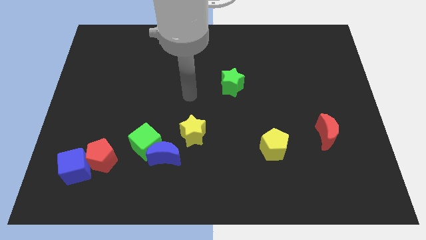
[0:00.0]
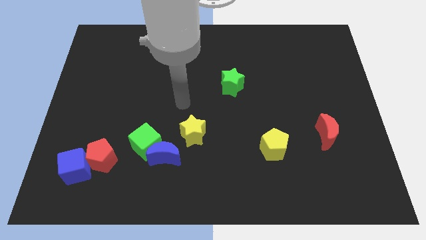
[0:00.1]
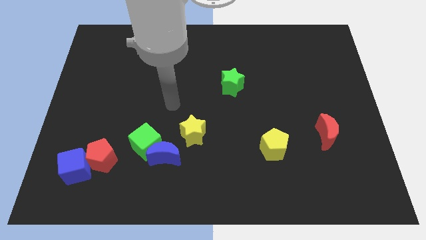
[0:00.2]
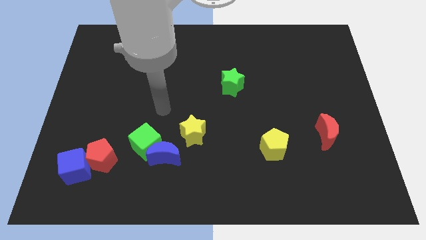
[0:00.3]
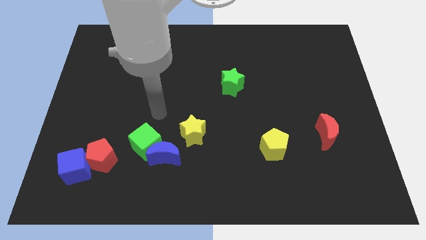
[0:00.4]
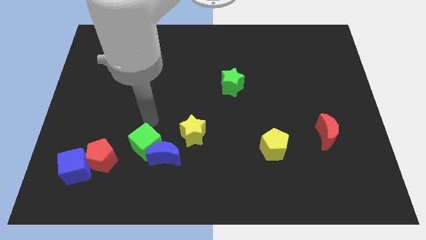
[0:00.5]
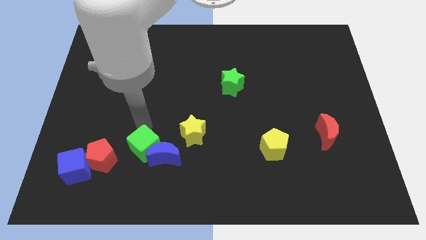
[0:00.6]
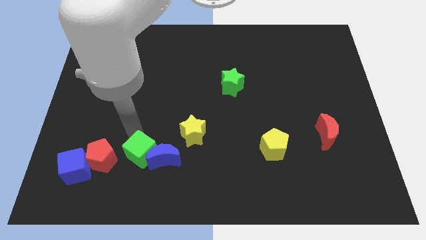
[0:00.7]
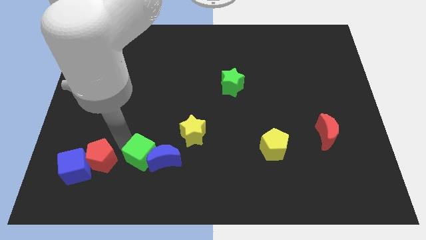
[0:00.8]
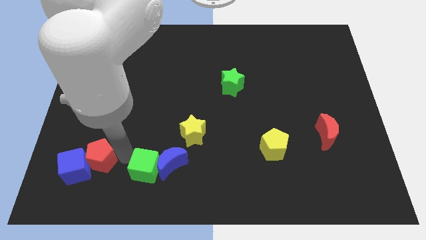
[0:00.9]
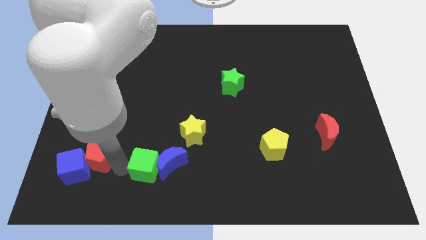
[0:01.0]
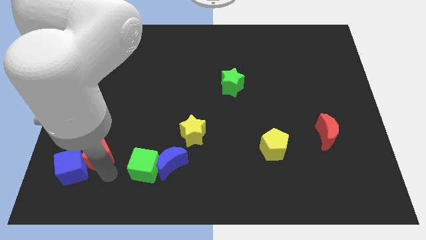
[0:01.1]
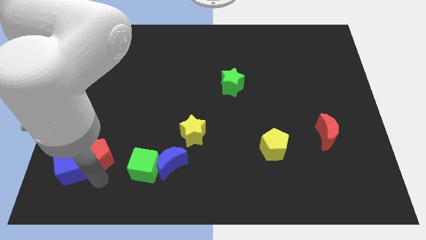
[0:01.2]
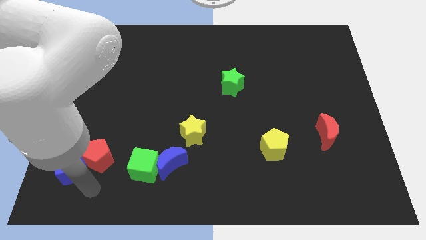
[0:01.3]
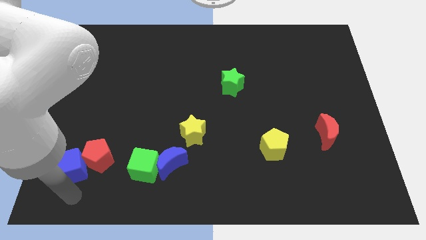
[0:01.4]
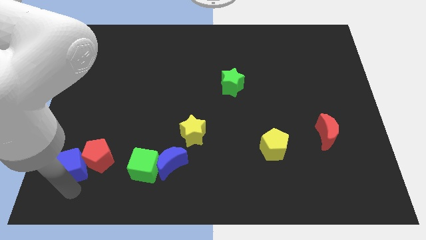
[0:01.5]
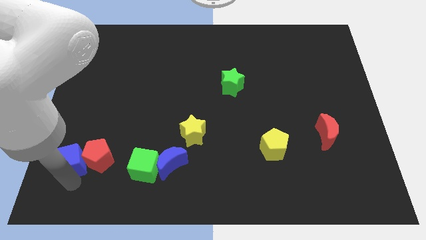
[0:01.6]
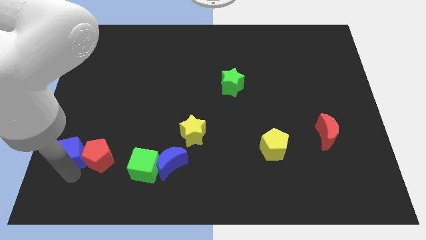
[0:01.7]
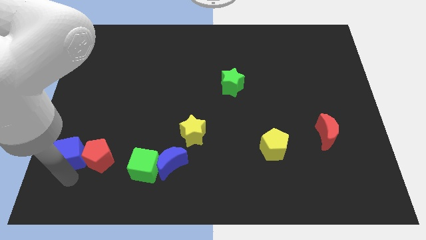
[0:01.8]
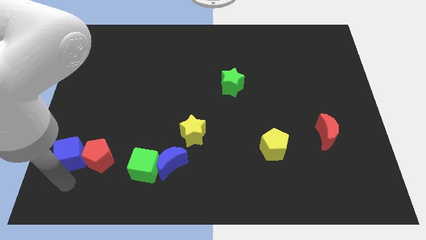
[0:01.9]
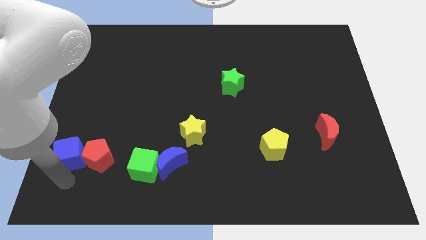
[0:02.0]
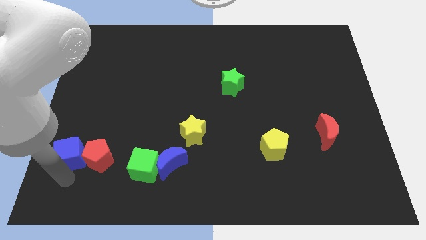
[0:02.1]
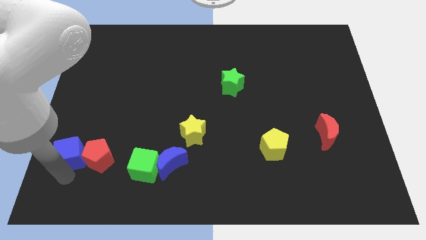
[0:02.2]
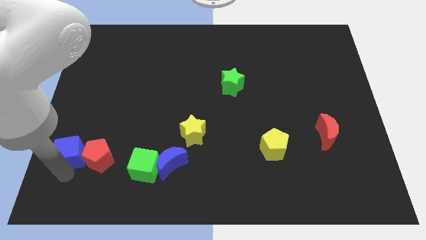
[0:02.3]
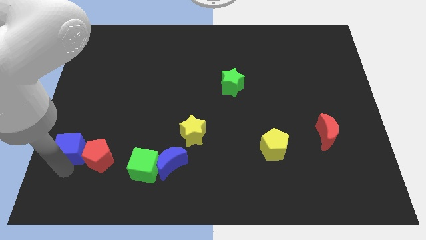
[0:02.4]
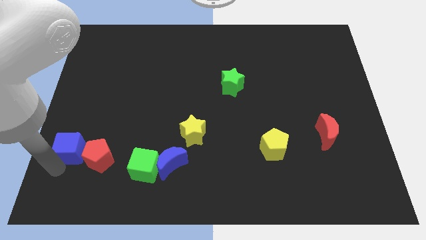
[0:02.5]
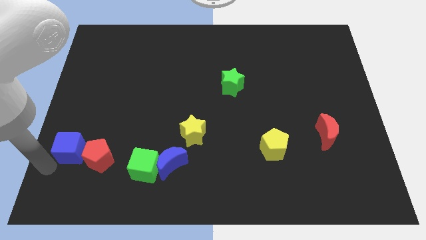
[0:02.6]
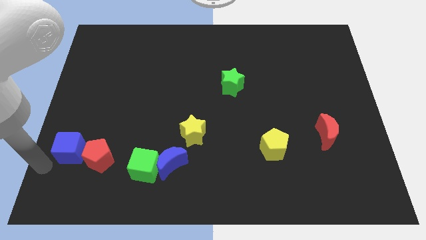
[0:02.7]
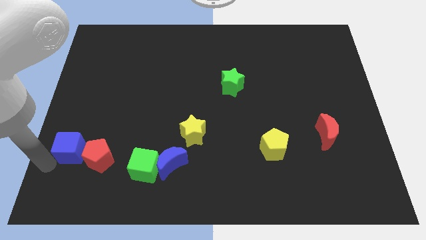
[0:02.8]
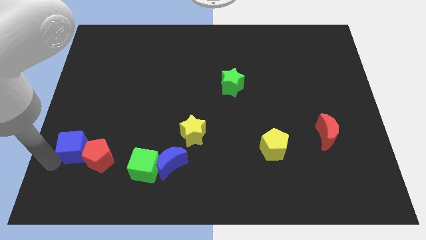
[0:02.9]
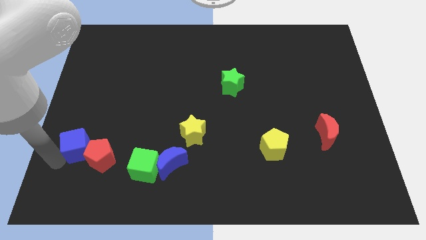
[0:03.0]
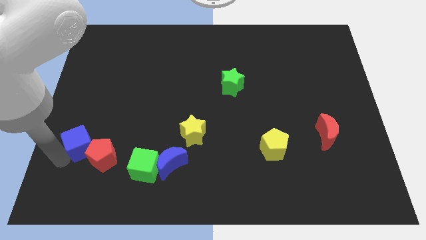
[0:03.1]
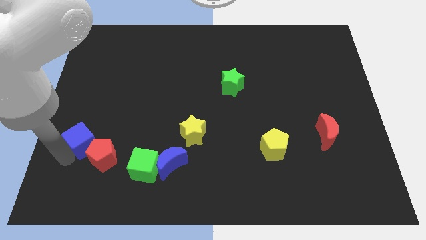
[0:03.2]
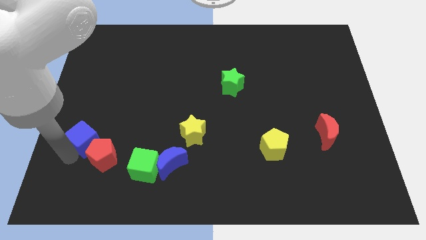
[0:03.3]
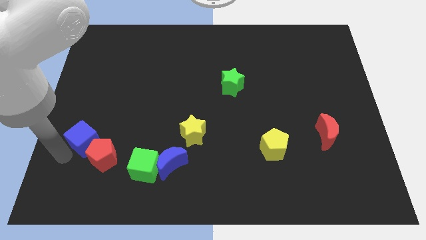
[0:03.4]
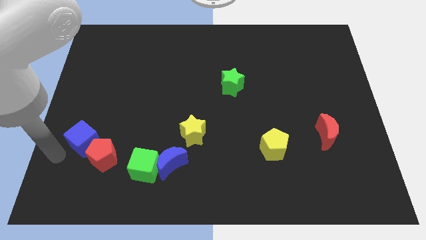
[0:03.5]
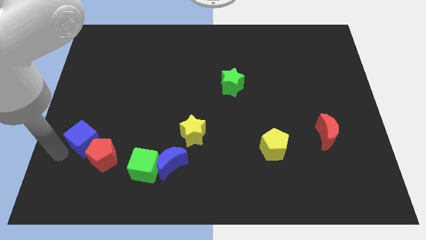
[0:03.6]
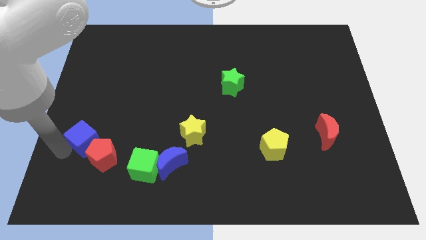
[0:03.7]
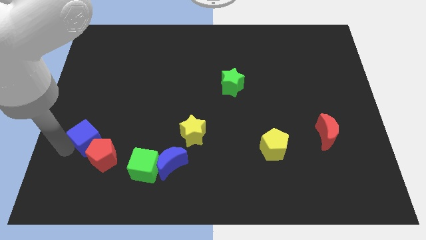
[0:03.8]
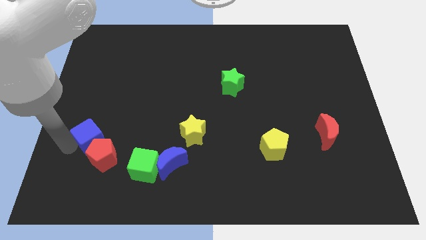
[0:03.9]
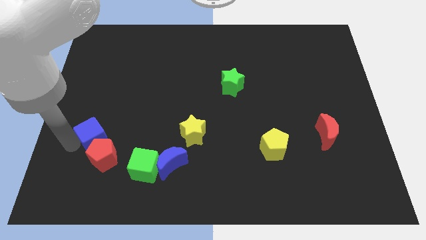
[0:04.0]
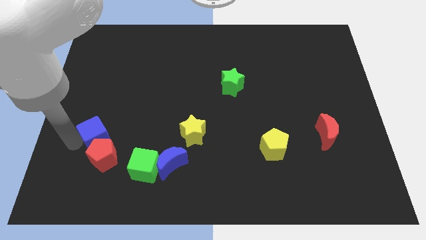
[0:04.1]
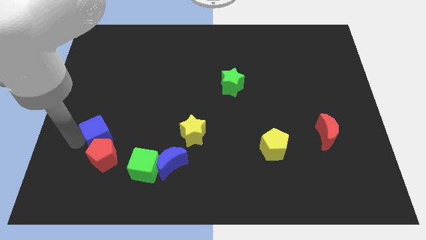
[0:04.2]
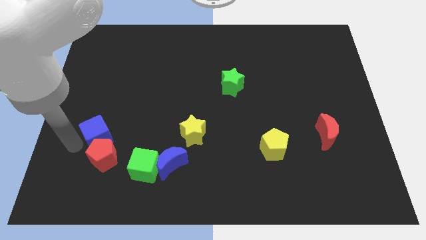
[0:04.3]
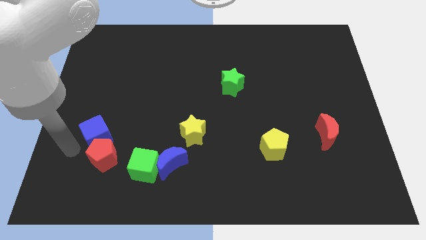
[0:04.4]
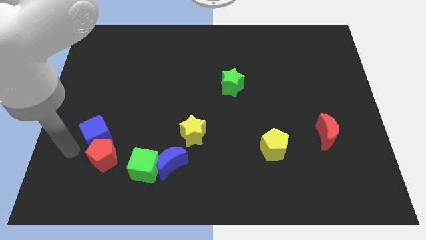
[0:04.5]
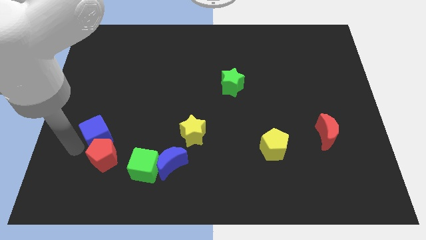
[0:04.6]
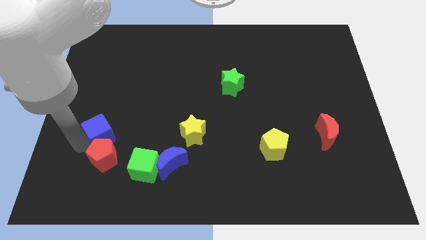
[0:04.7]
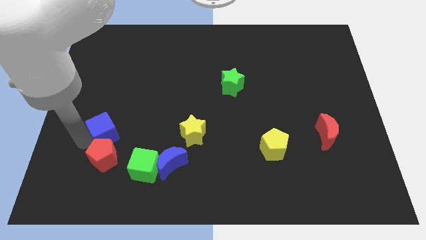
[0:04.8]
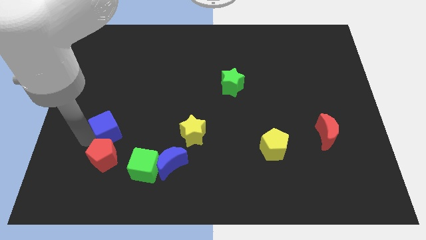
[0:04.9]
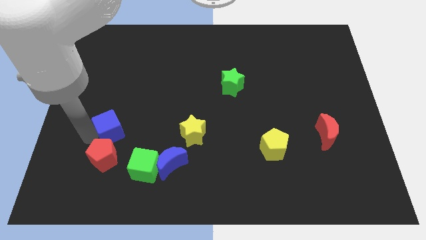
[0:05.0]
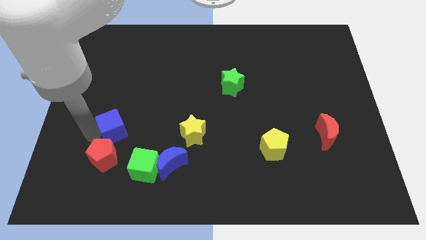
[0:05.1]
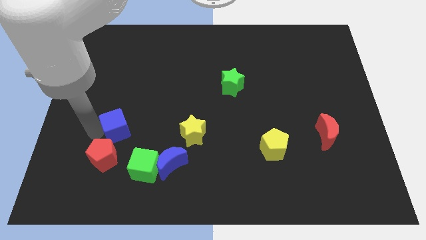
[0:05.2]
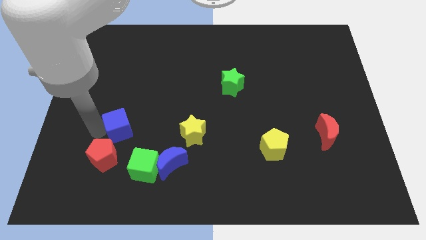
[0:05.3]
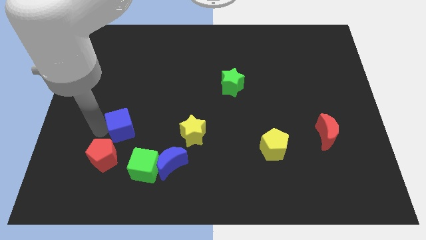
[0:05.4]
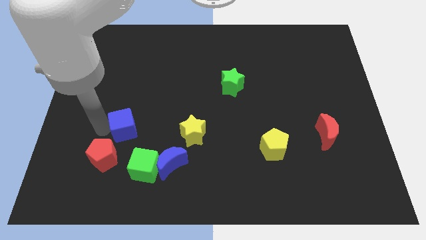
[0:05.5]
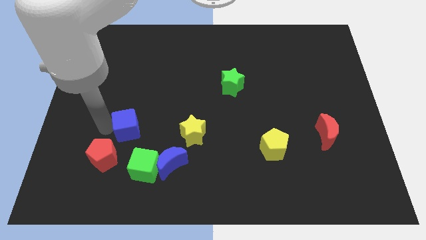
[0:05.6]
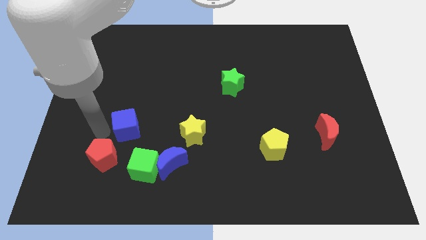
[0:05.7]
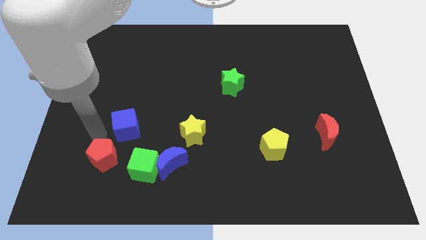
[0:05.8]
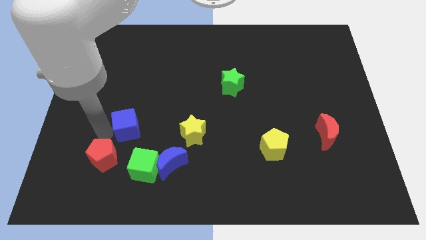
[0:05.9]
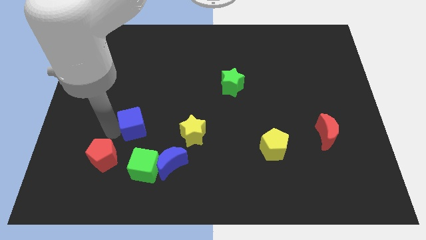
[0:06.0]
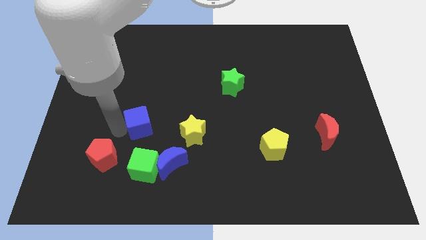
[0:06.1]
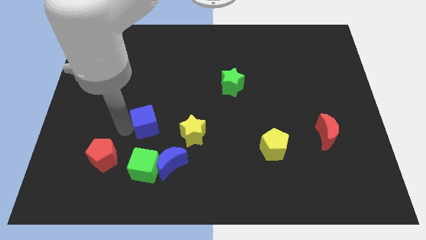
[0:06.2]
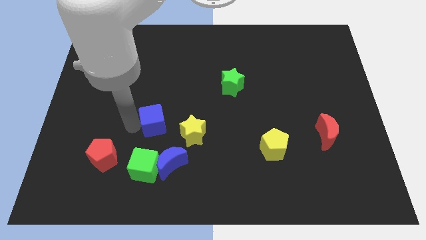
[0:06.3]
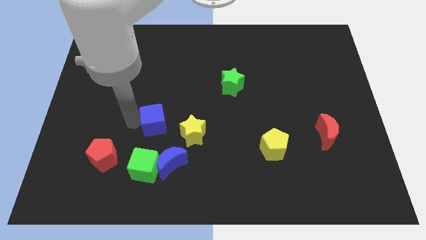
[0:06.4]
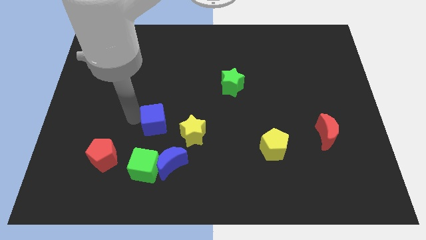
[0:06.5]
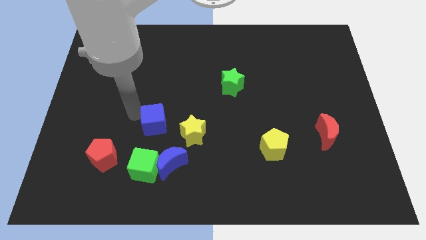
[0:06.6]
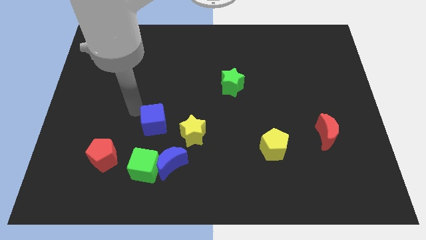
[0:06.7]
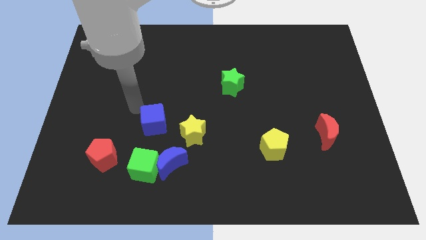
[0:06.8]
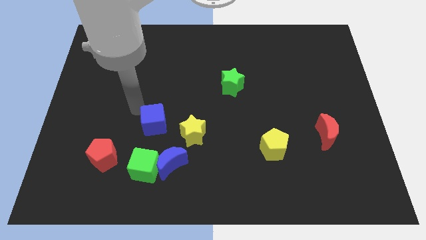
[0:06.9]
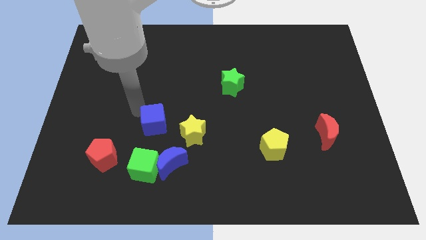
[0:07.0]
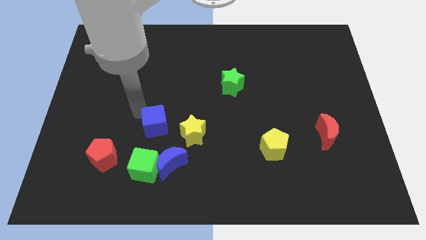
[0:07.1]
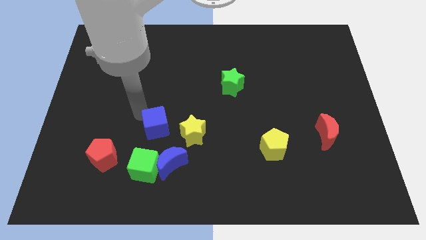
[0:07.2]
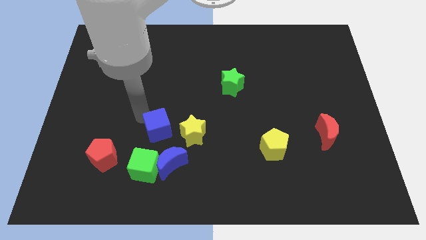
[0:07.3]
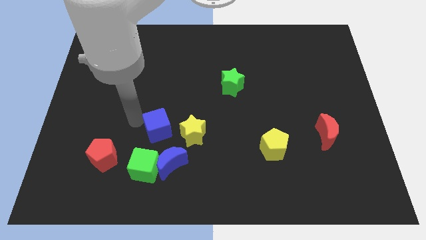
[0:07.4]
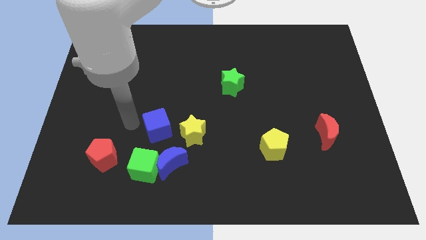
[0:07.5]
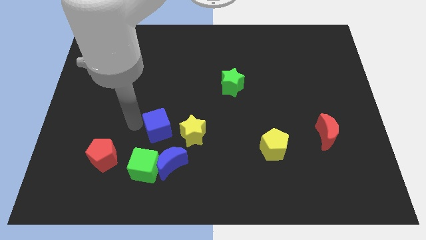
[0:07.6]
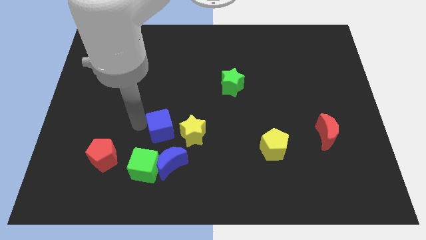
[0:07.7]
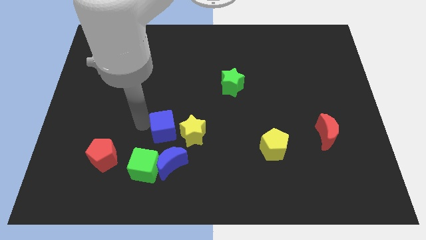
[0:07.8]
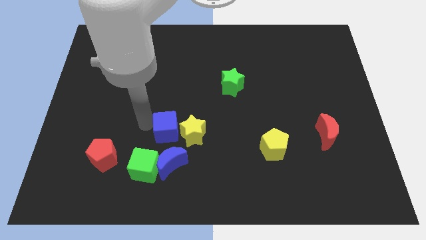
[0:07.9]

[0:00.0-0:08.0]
move the blue cube towards the yellow star
